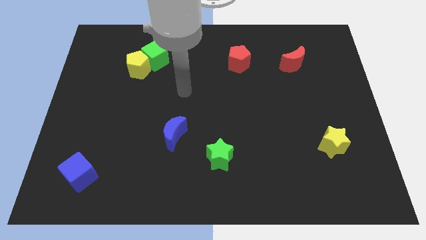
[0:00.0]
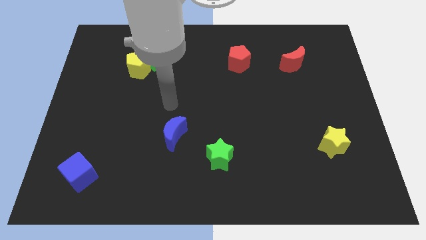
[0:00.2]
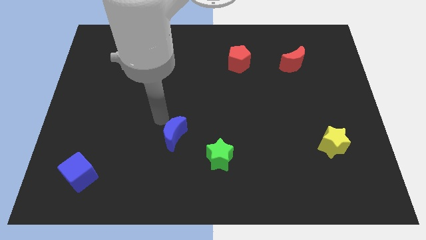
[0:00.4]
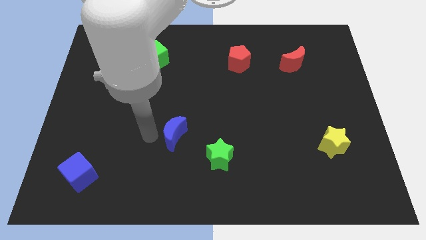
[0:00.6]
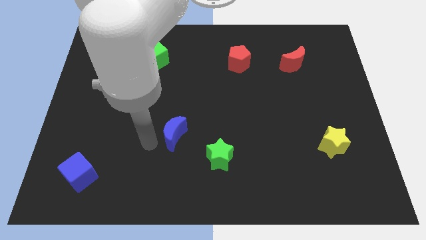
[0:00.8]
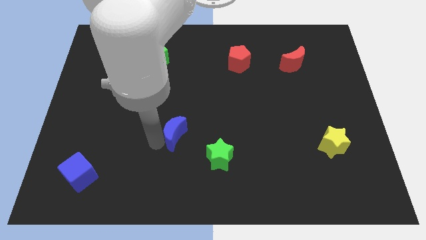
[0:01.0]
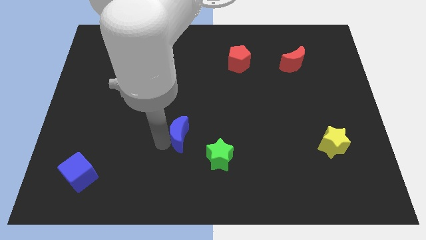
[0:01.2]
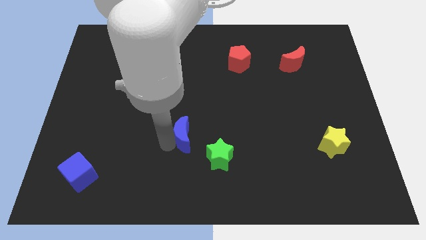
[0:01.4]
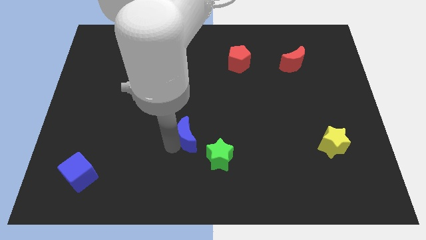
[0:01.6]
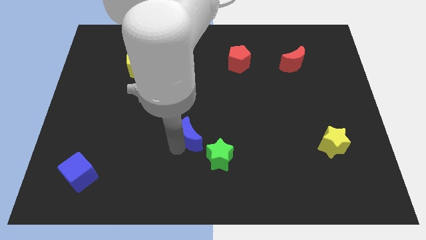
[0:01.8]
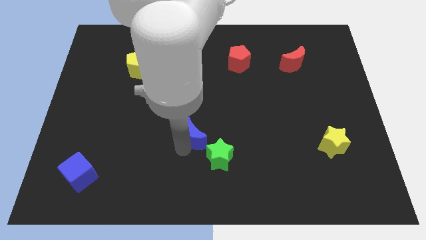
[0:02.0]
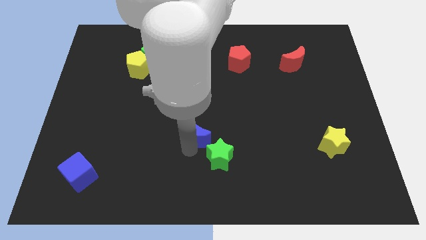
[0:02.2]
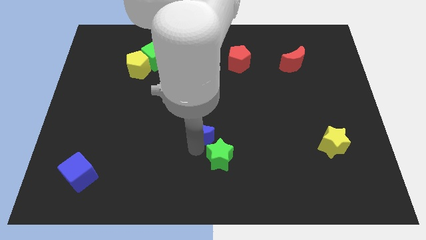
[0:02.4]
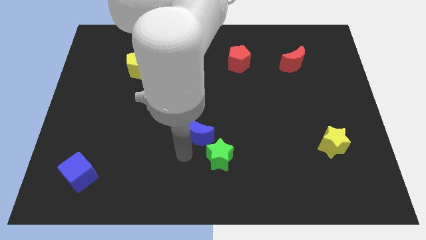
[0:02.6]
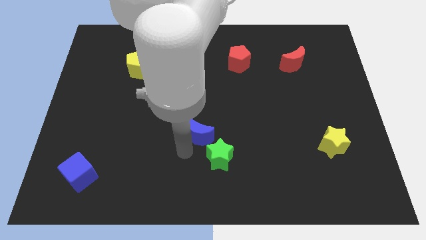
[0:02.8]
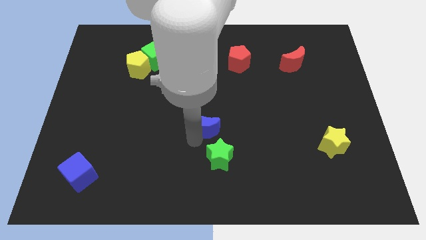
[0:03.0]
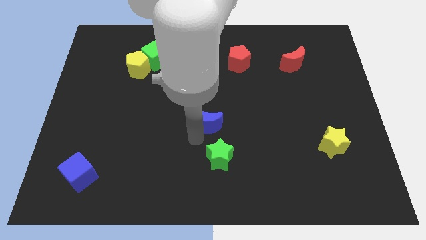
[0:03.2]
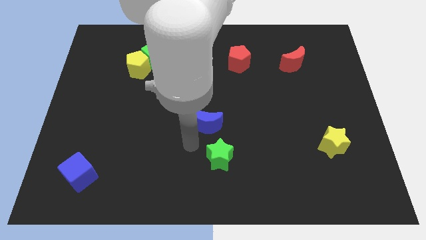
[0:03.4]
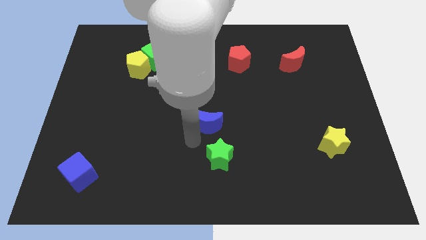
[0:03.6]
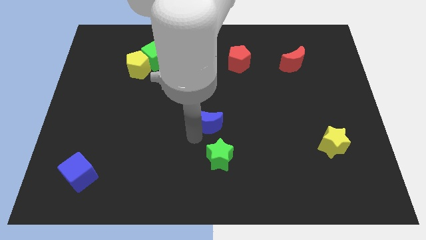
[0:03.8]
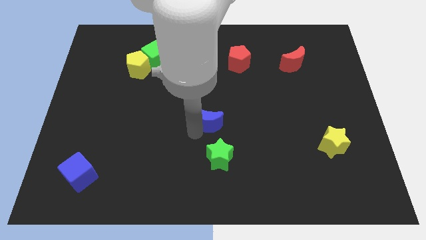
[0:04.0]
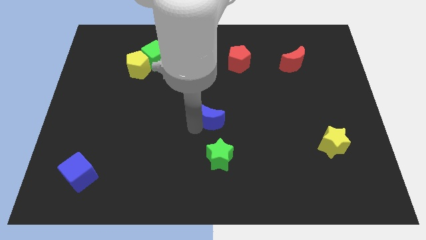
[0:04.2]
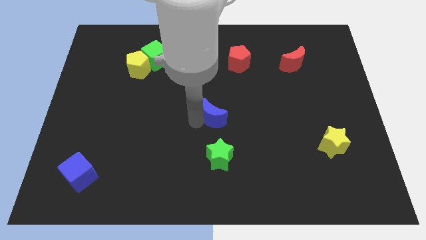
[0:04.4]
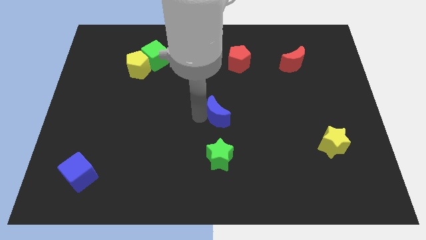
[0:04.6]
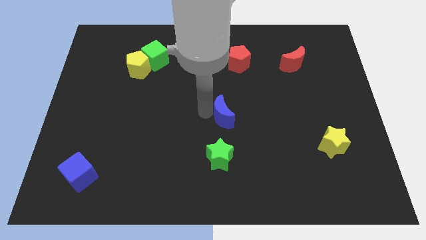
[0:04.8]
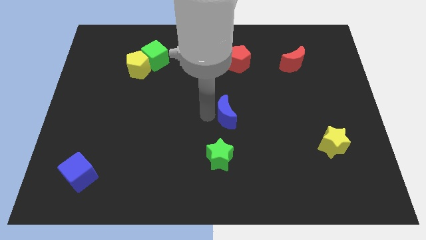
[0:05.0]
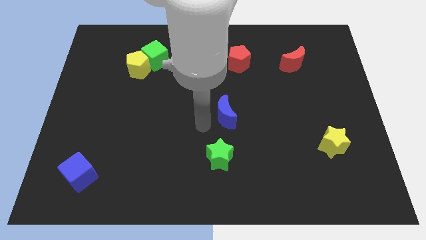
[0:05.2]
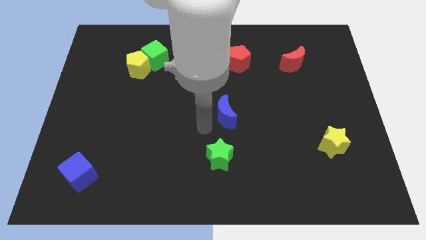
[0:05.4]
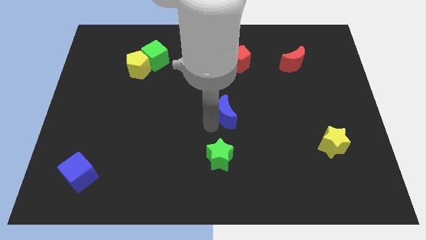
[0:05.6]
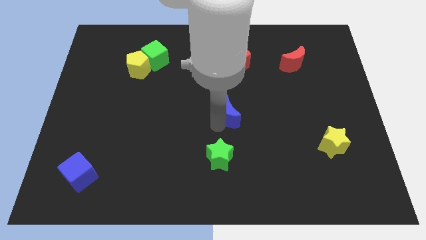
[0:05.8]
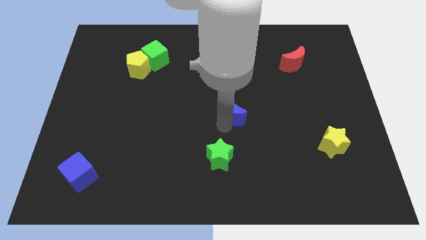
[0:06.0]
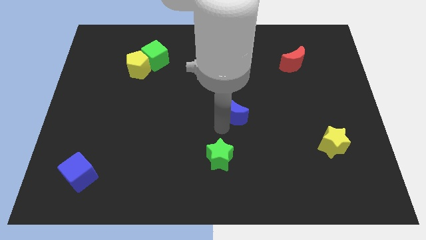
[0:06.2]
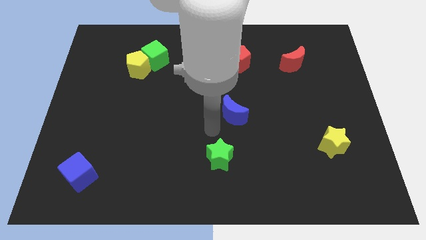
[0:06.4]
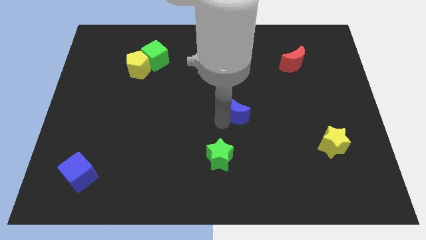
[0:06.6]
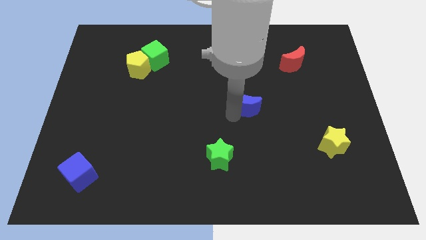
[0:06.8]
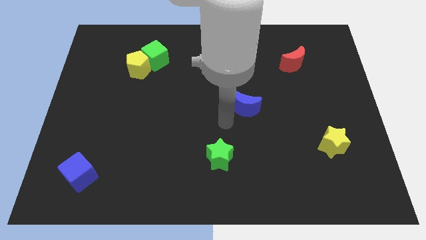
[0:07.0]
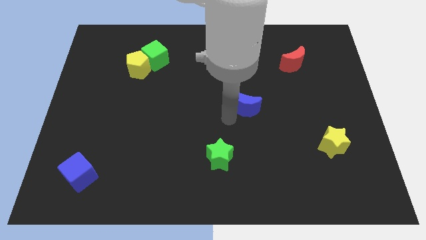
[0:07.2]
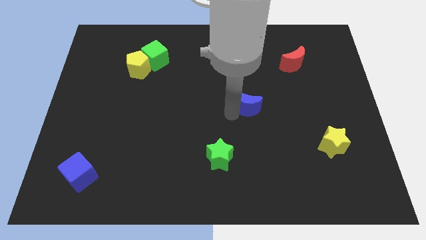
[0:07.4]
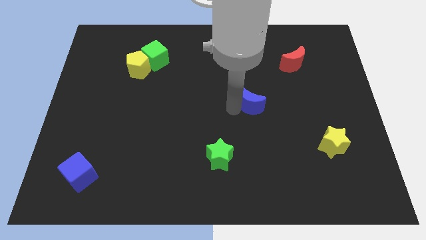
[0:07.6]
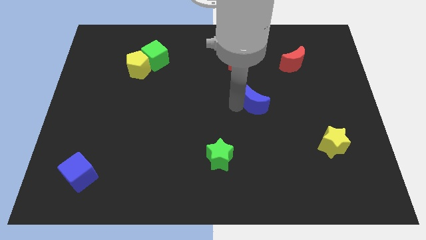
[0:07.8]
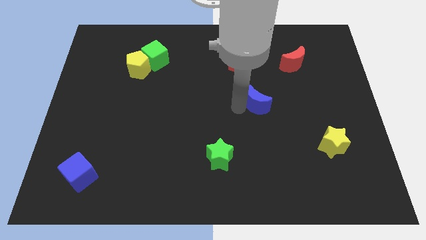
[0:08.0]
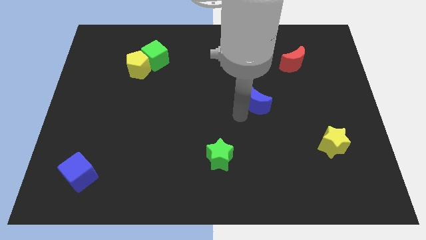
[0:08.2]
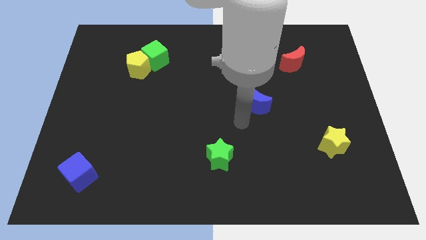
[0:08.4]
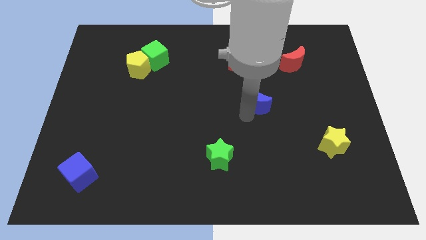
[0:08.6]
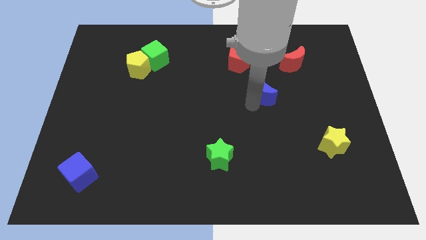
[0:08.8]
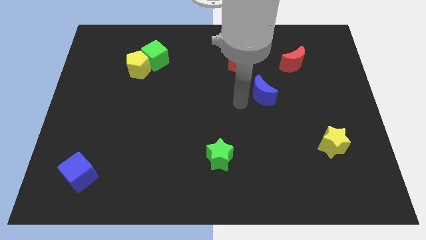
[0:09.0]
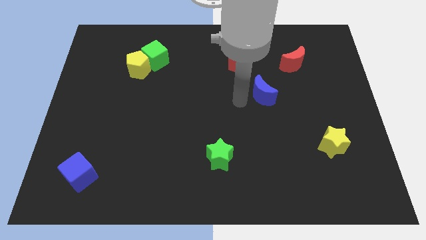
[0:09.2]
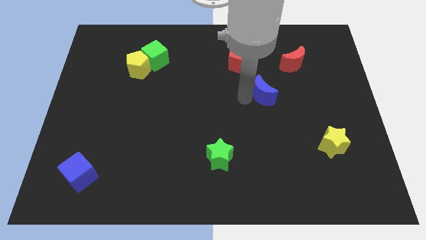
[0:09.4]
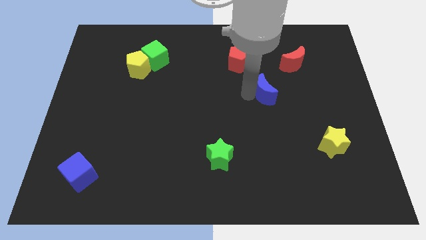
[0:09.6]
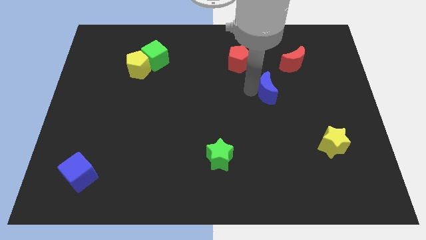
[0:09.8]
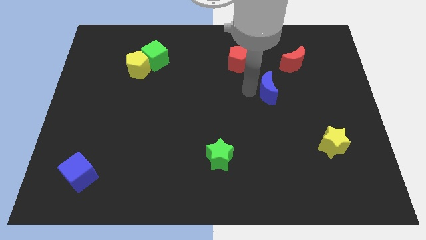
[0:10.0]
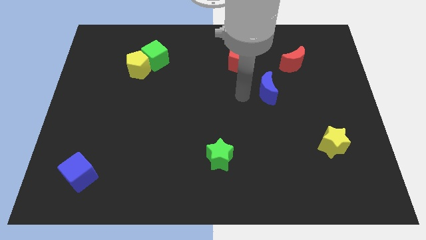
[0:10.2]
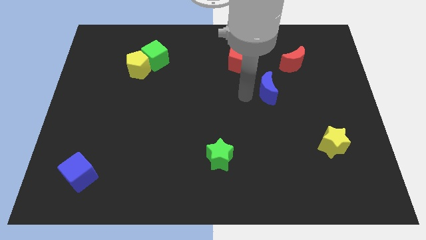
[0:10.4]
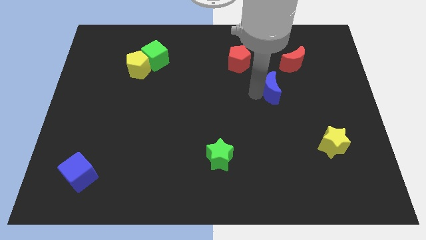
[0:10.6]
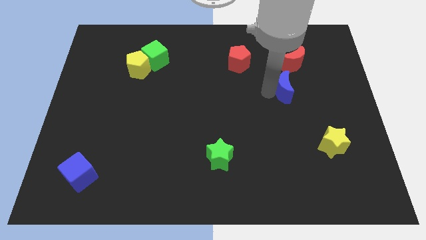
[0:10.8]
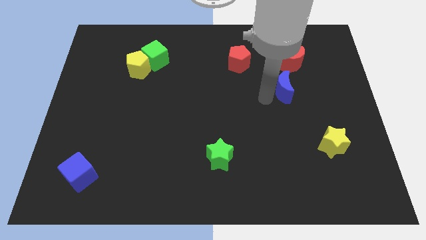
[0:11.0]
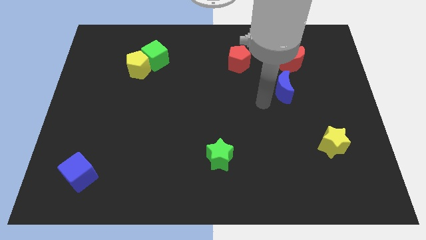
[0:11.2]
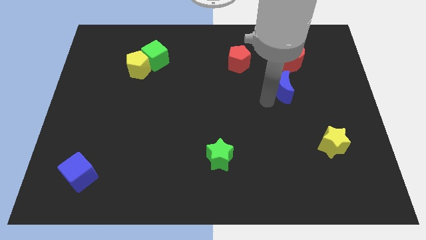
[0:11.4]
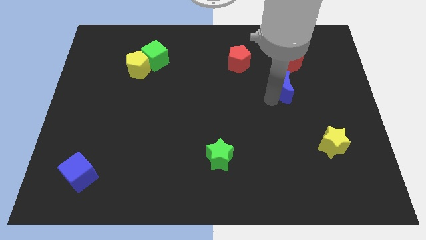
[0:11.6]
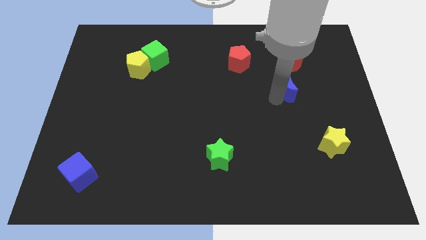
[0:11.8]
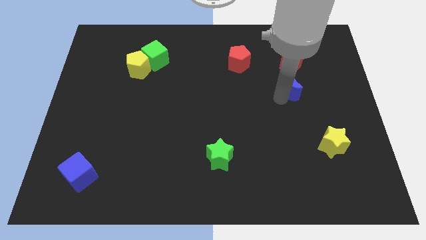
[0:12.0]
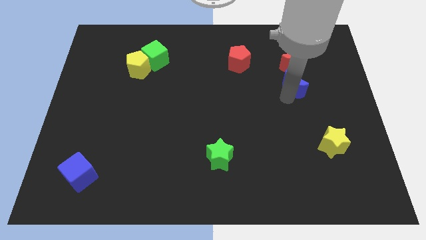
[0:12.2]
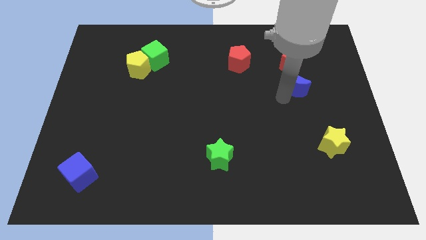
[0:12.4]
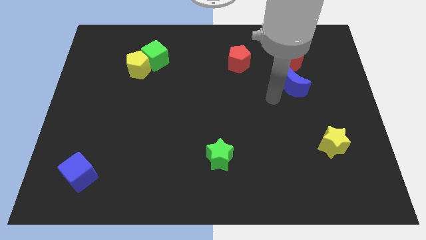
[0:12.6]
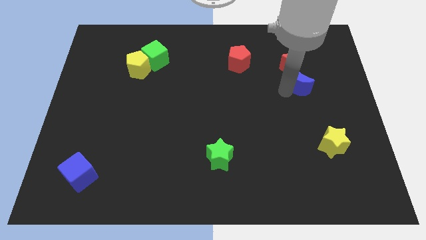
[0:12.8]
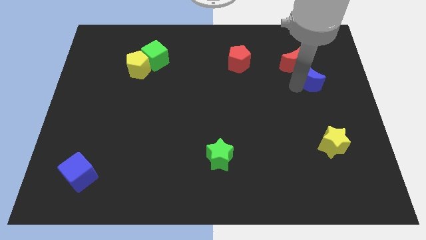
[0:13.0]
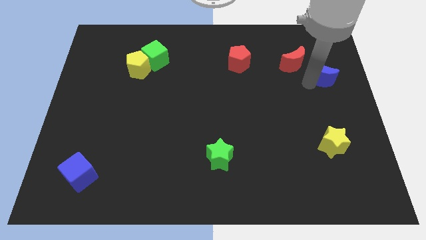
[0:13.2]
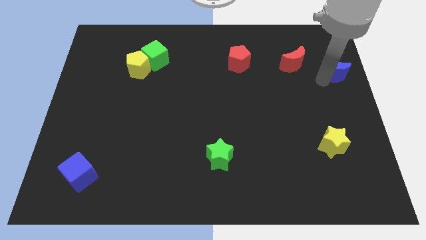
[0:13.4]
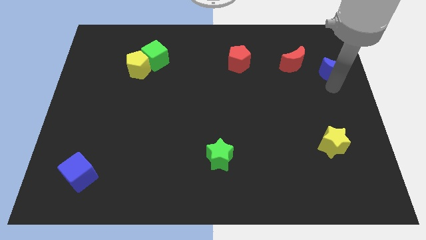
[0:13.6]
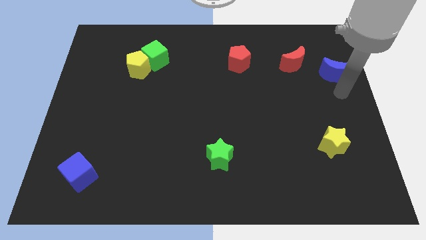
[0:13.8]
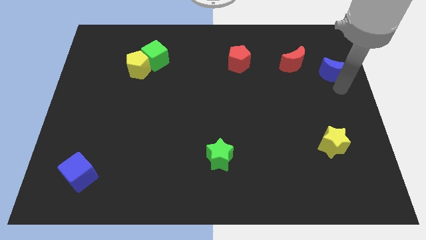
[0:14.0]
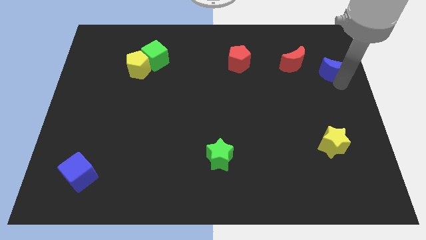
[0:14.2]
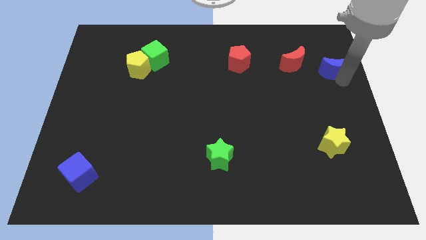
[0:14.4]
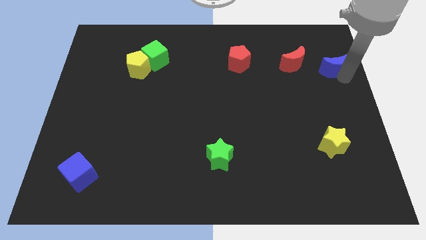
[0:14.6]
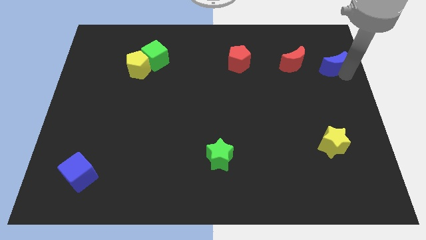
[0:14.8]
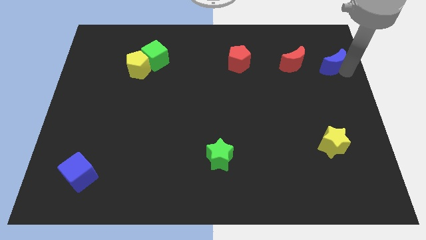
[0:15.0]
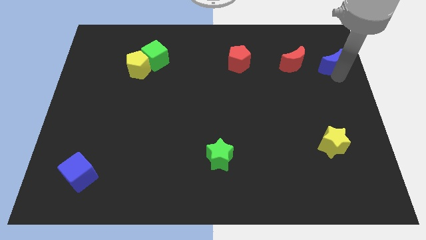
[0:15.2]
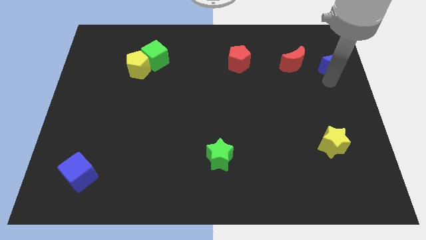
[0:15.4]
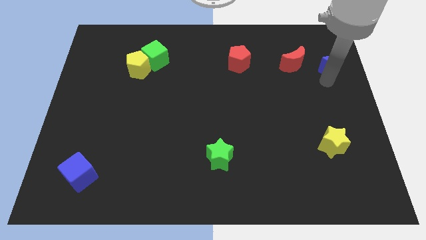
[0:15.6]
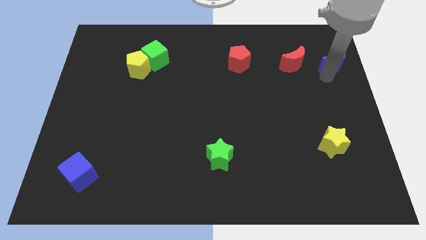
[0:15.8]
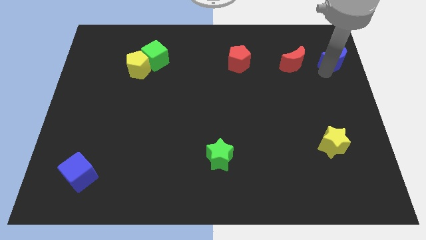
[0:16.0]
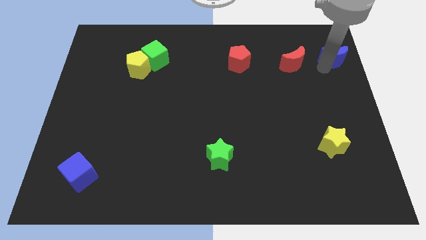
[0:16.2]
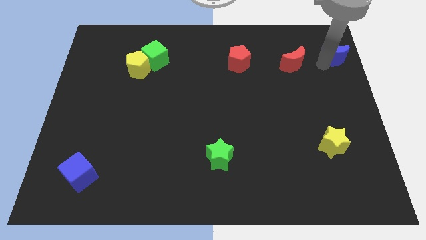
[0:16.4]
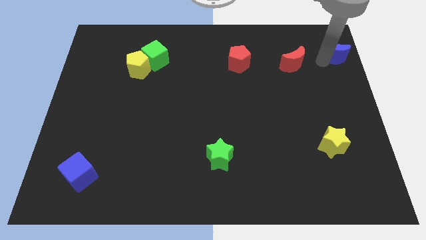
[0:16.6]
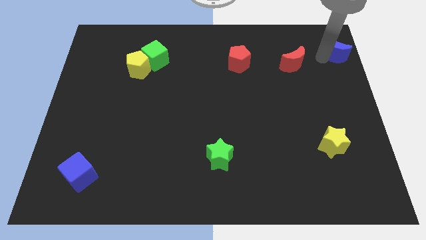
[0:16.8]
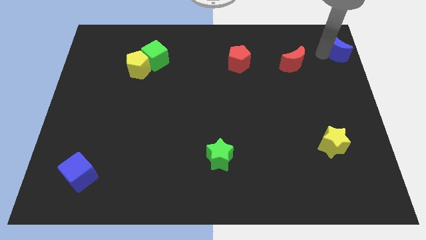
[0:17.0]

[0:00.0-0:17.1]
move the blue moon to the upper right corner
